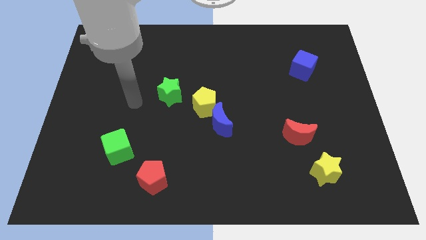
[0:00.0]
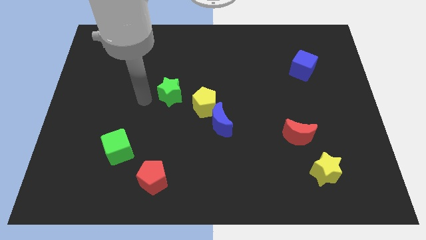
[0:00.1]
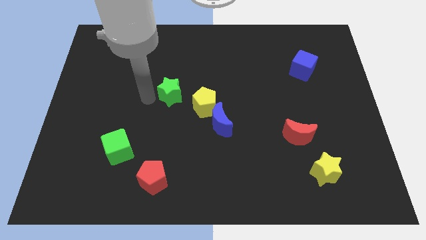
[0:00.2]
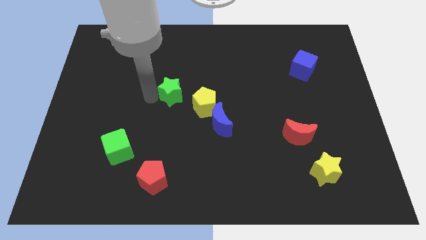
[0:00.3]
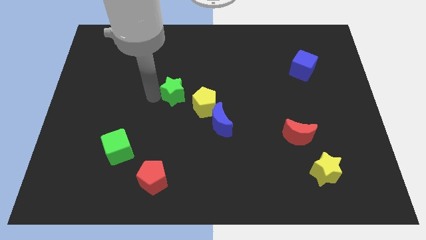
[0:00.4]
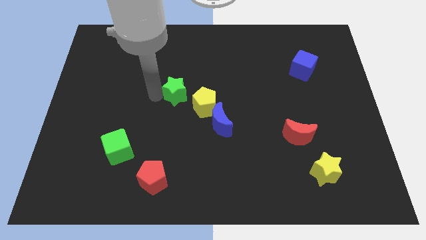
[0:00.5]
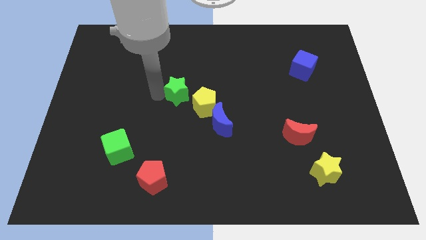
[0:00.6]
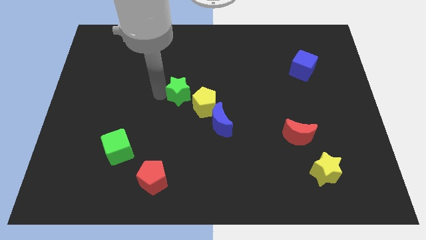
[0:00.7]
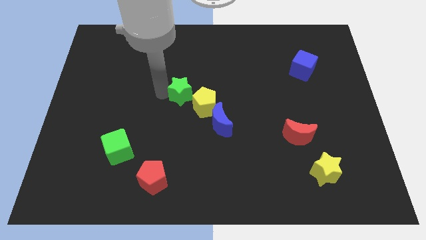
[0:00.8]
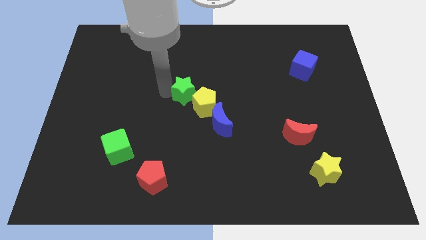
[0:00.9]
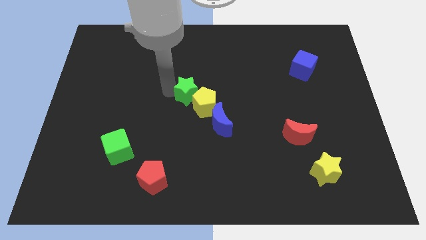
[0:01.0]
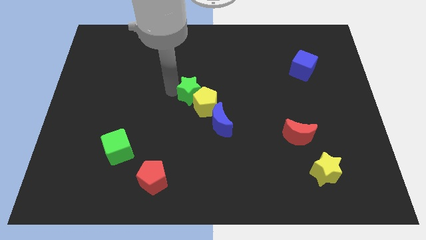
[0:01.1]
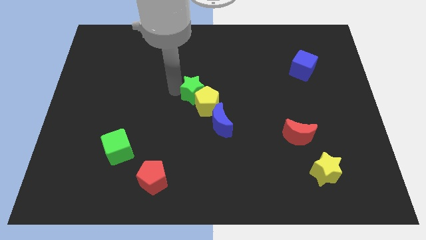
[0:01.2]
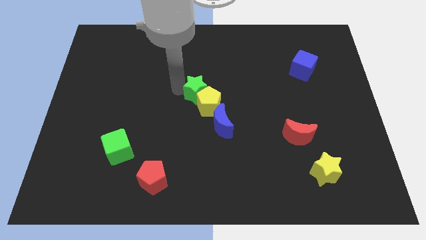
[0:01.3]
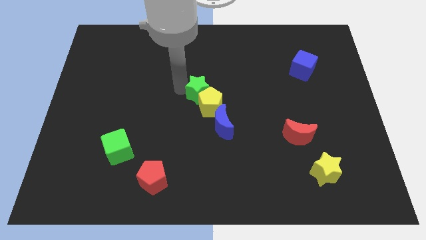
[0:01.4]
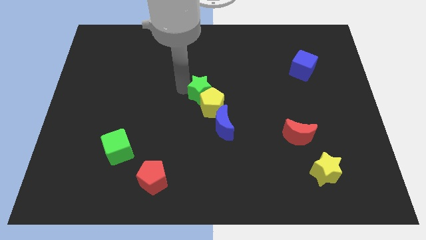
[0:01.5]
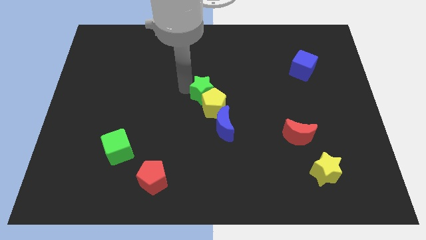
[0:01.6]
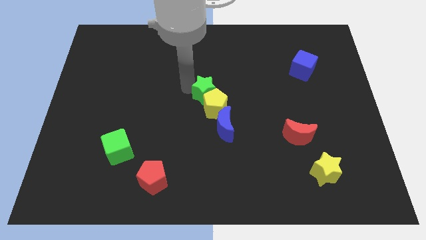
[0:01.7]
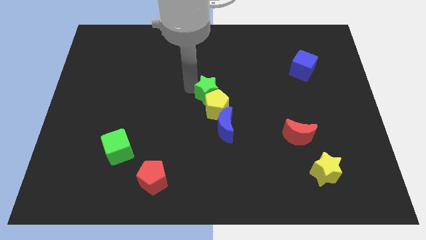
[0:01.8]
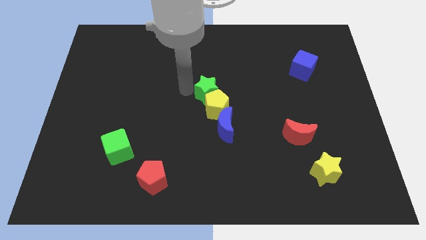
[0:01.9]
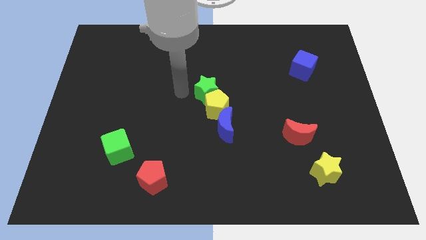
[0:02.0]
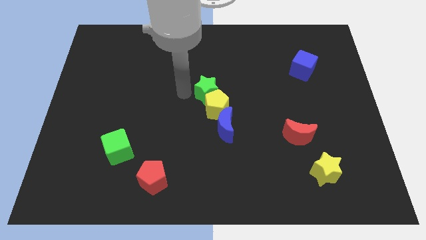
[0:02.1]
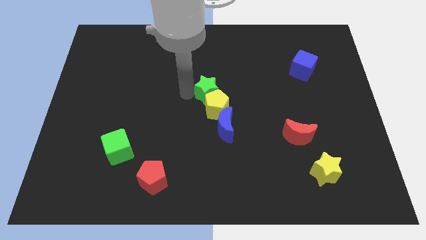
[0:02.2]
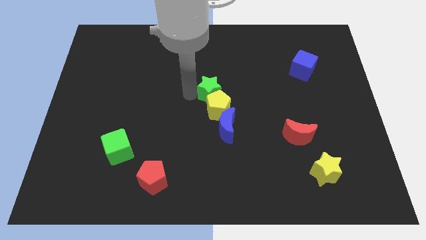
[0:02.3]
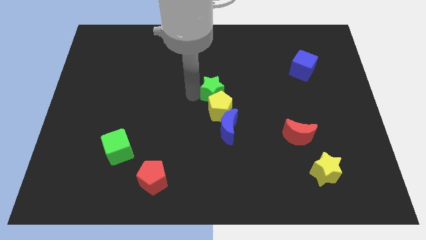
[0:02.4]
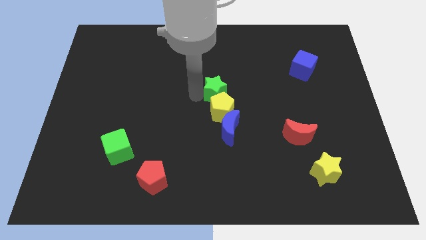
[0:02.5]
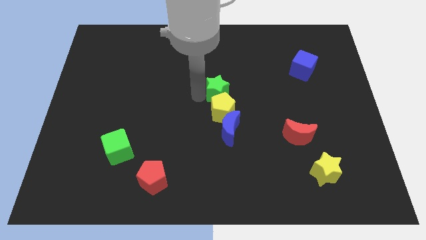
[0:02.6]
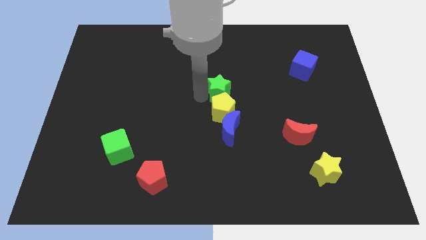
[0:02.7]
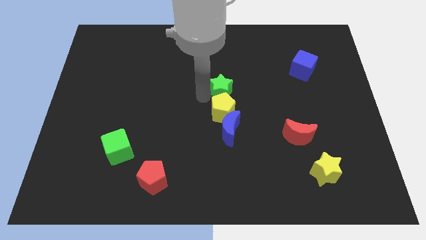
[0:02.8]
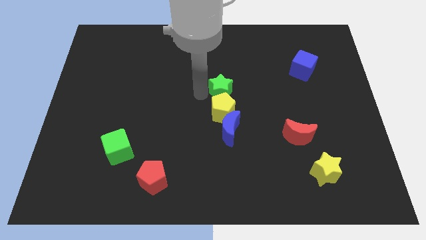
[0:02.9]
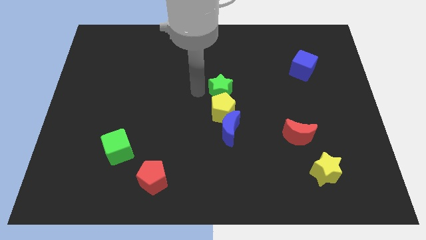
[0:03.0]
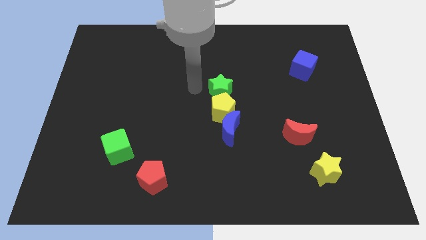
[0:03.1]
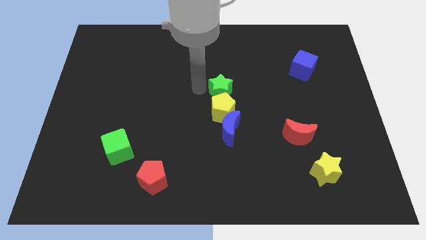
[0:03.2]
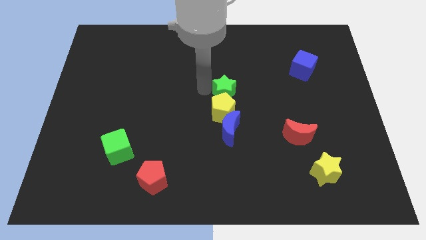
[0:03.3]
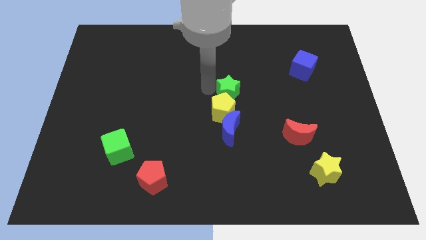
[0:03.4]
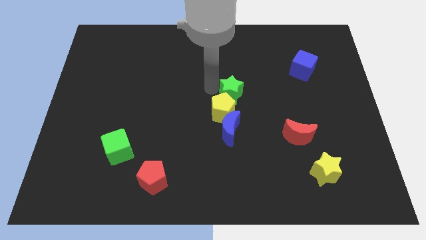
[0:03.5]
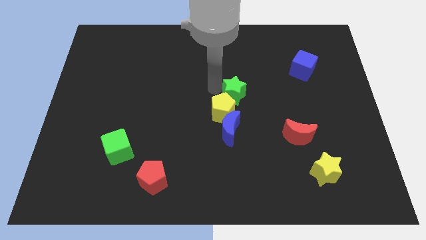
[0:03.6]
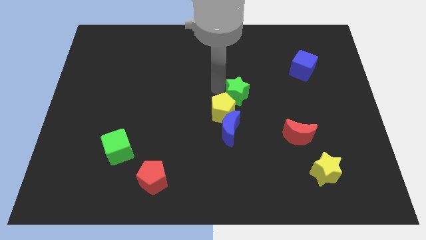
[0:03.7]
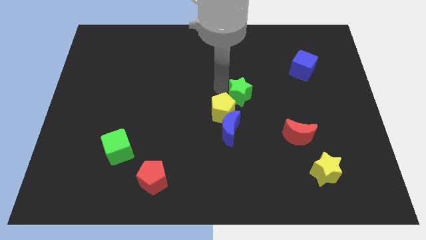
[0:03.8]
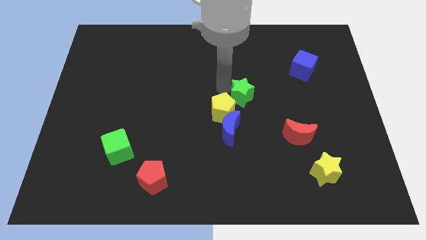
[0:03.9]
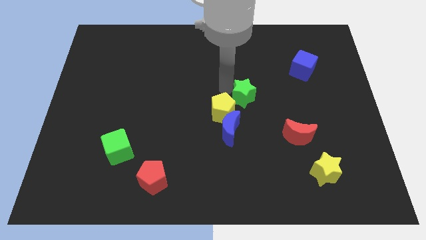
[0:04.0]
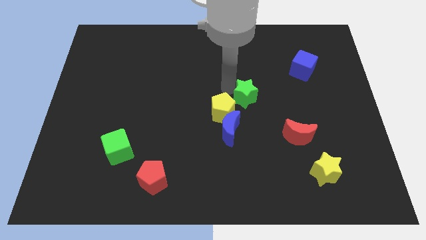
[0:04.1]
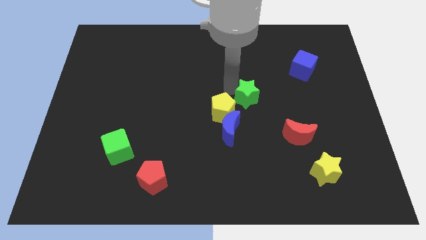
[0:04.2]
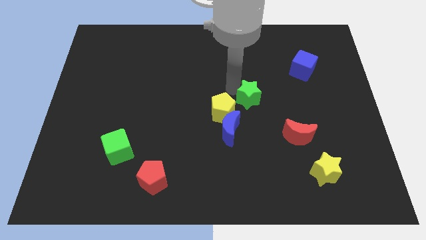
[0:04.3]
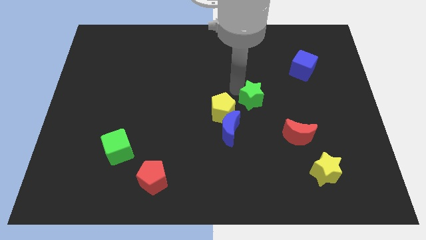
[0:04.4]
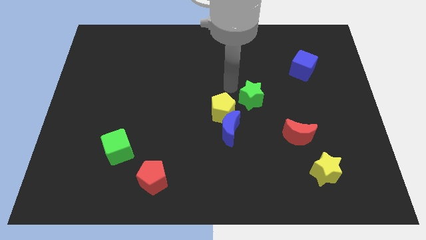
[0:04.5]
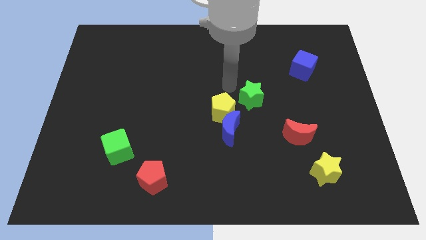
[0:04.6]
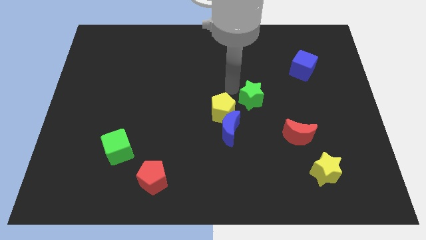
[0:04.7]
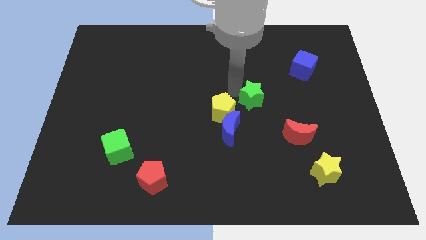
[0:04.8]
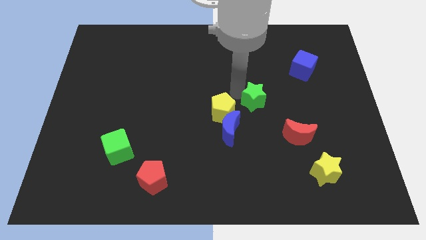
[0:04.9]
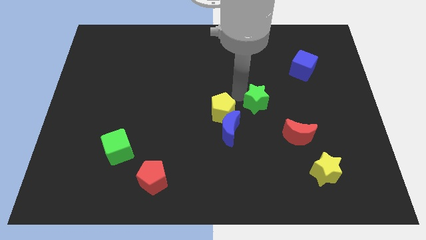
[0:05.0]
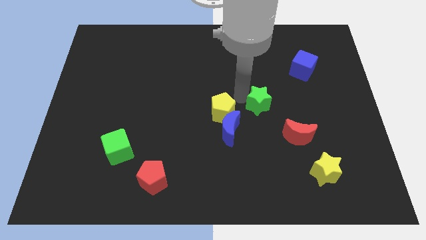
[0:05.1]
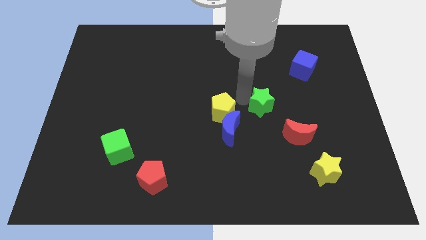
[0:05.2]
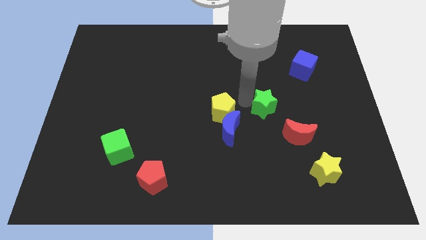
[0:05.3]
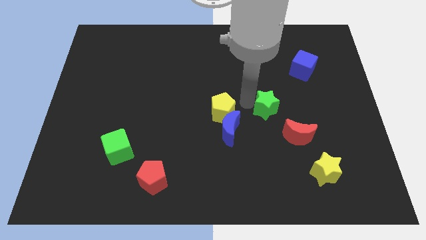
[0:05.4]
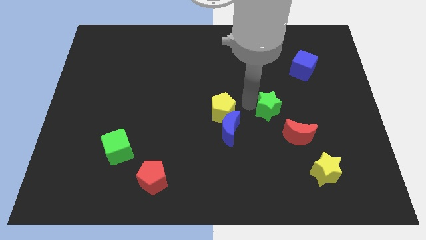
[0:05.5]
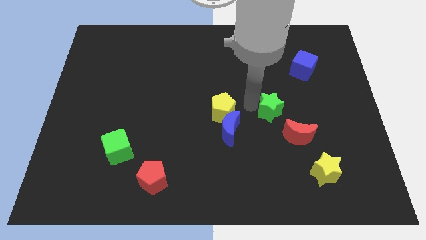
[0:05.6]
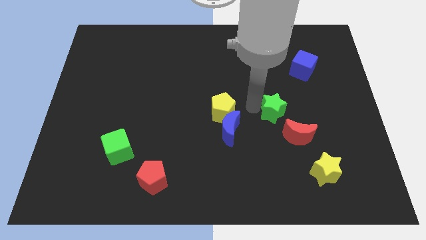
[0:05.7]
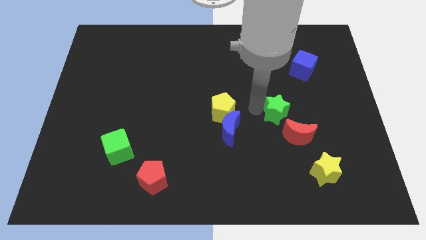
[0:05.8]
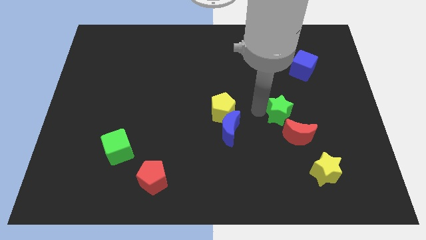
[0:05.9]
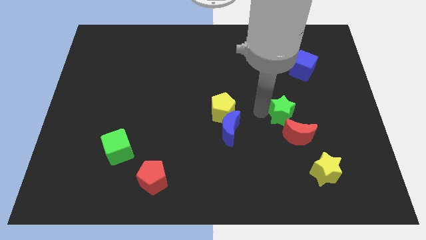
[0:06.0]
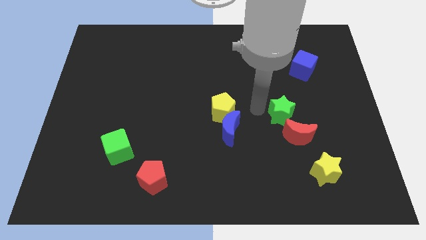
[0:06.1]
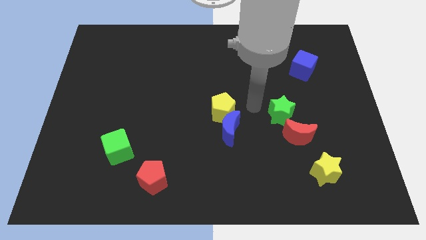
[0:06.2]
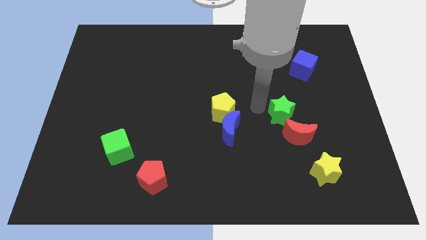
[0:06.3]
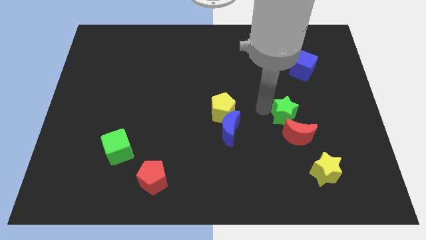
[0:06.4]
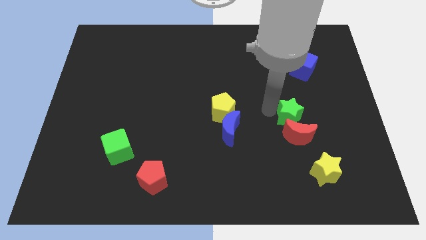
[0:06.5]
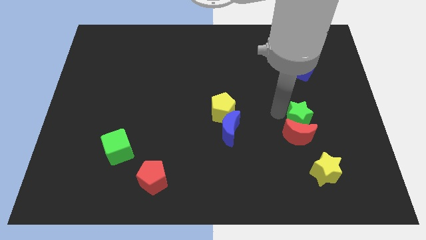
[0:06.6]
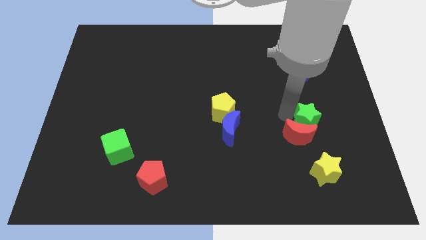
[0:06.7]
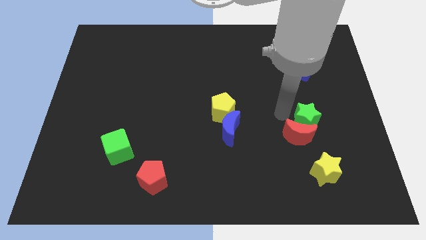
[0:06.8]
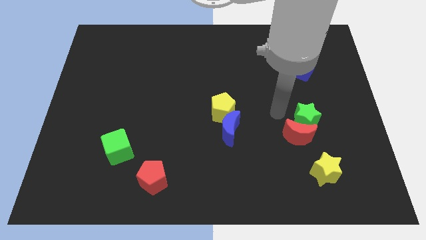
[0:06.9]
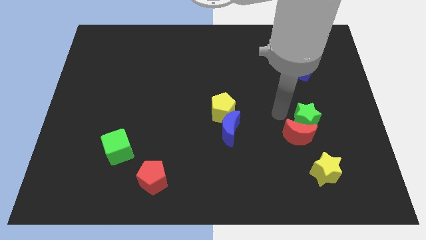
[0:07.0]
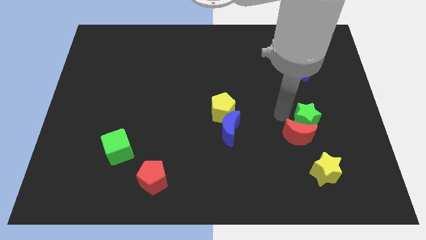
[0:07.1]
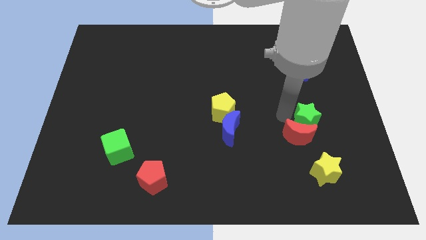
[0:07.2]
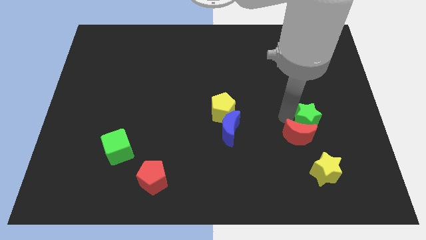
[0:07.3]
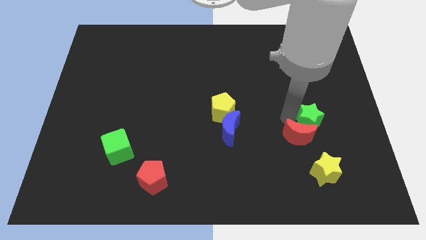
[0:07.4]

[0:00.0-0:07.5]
put the green star right of the red moon

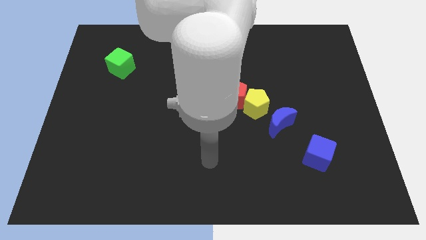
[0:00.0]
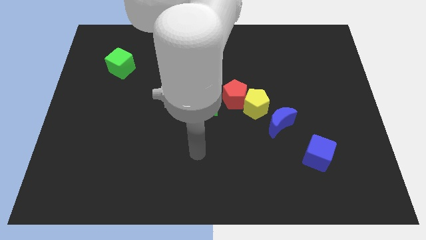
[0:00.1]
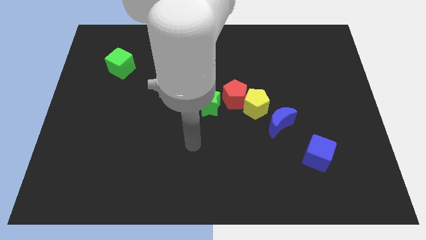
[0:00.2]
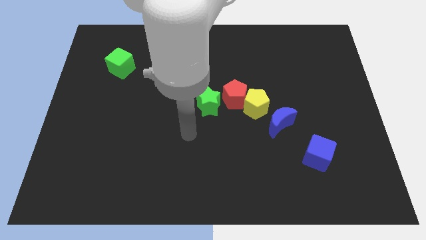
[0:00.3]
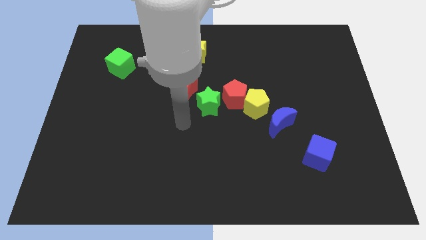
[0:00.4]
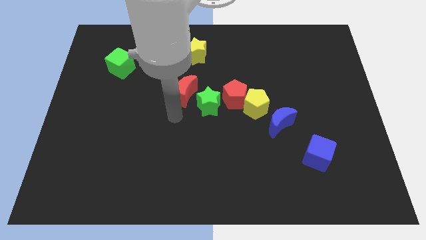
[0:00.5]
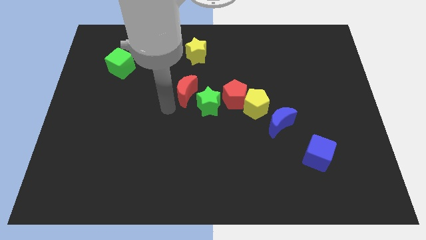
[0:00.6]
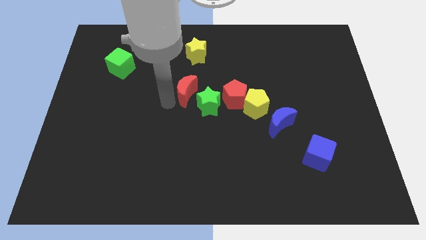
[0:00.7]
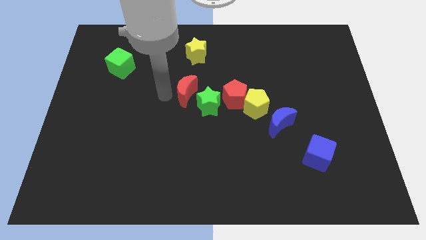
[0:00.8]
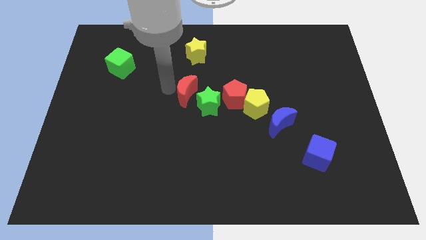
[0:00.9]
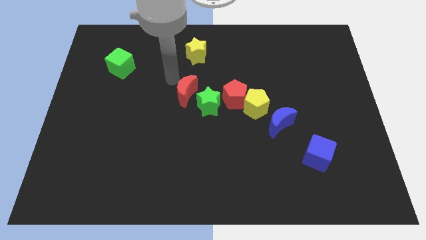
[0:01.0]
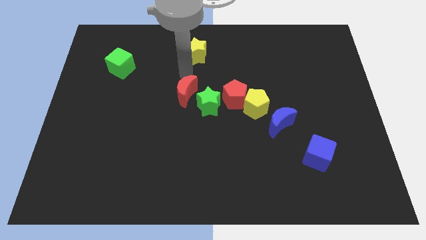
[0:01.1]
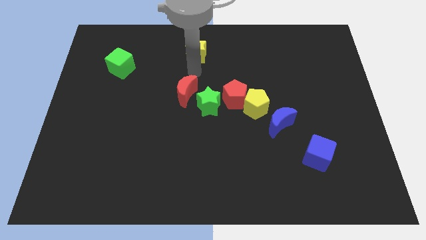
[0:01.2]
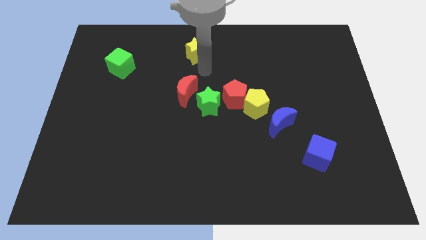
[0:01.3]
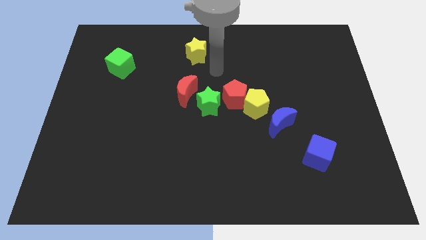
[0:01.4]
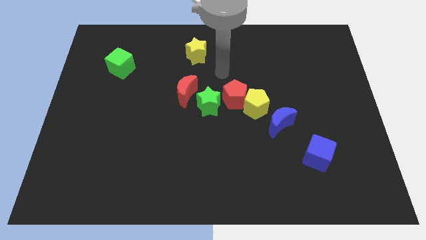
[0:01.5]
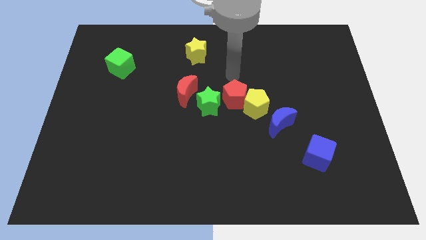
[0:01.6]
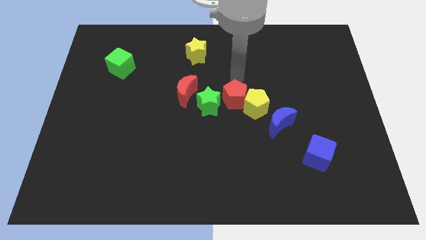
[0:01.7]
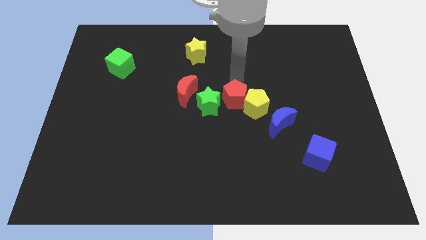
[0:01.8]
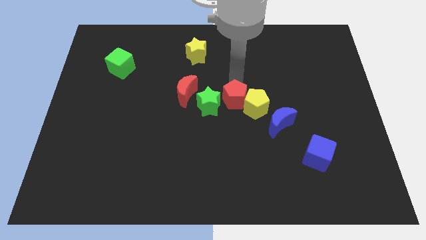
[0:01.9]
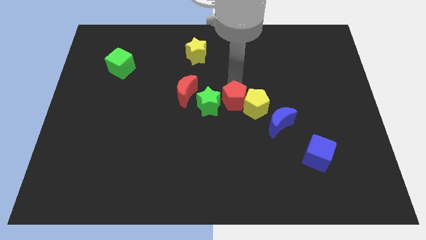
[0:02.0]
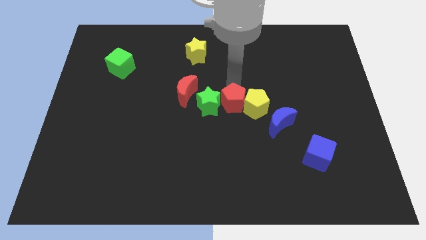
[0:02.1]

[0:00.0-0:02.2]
push the red pentagon diagonally down and to the right of the green star
